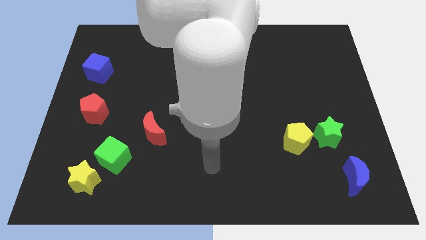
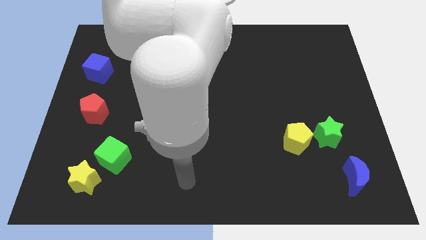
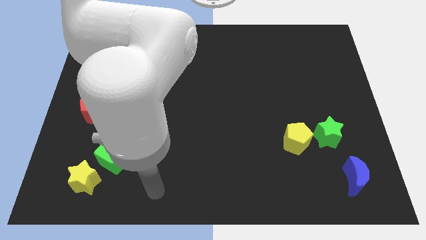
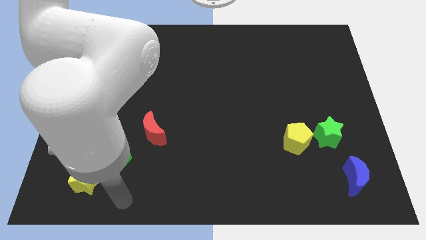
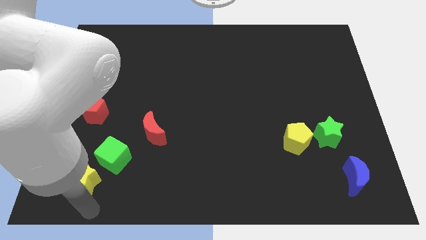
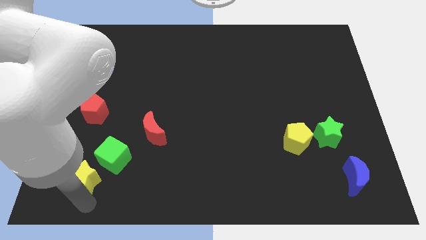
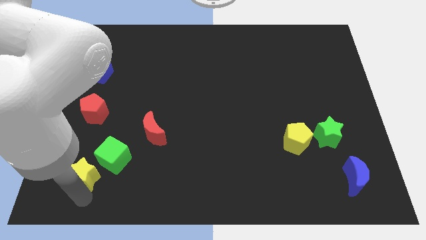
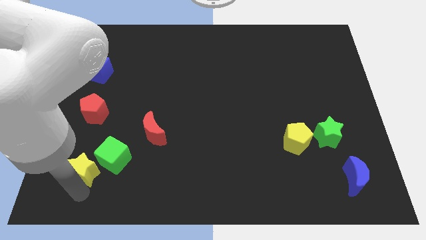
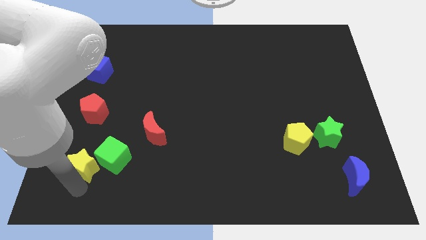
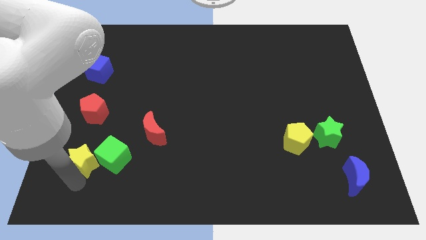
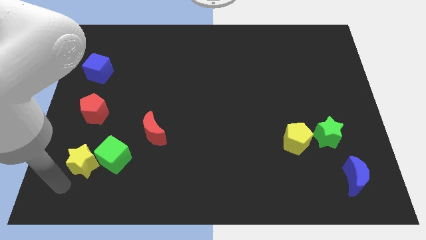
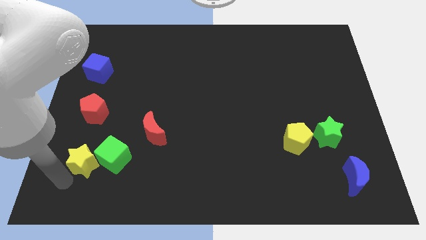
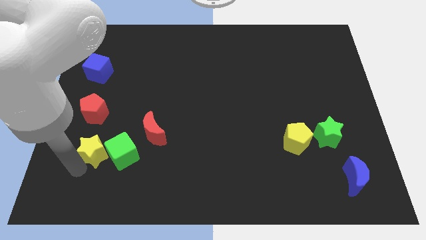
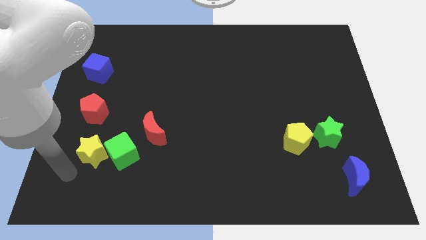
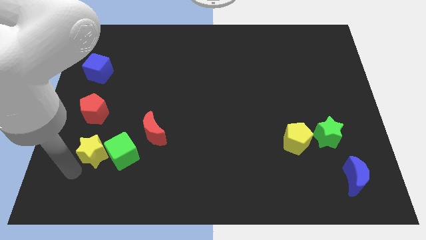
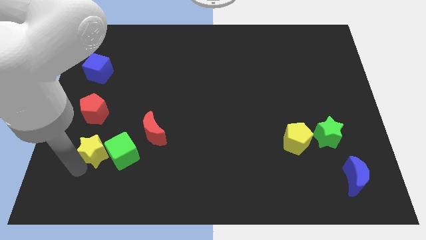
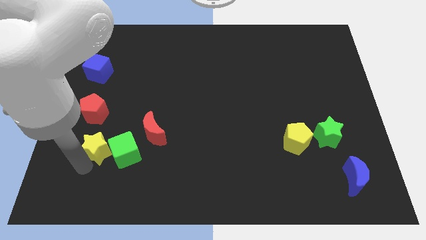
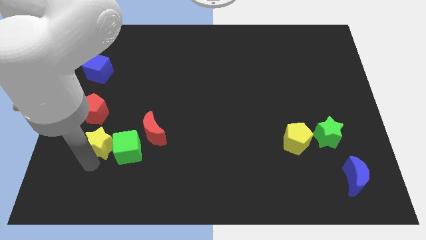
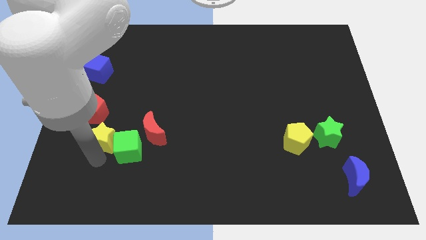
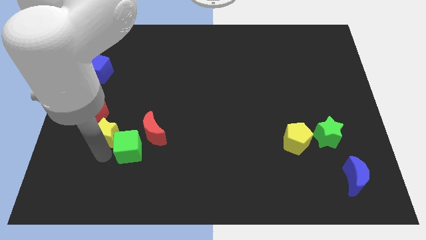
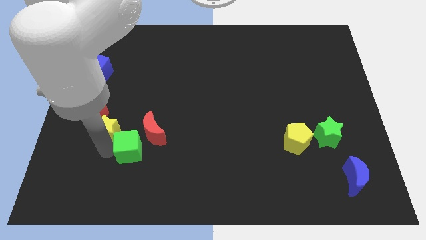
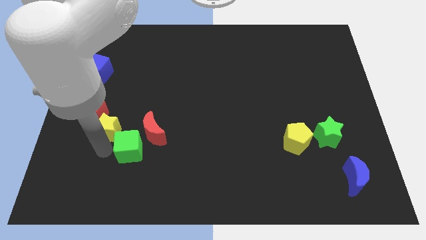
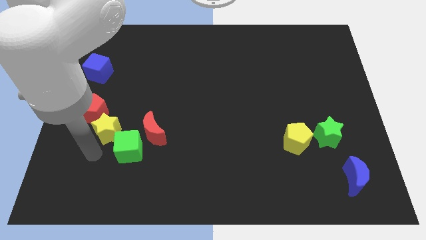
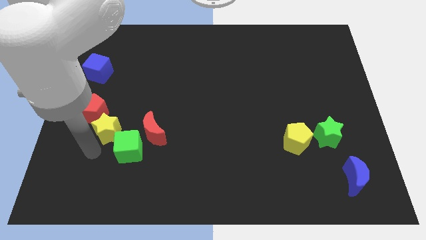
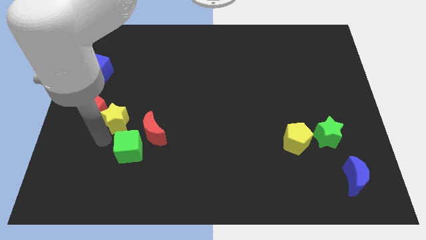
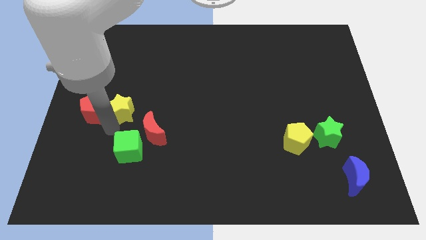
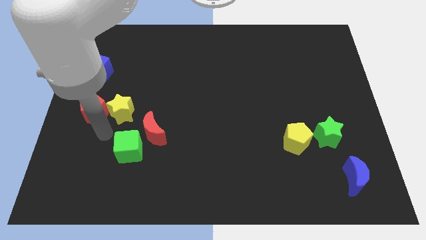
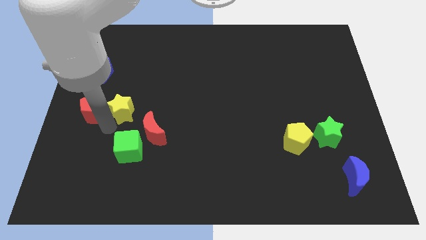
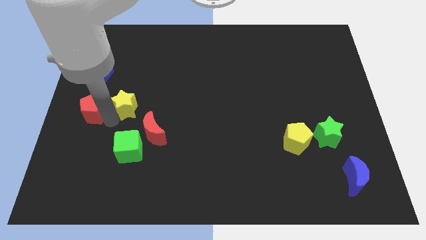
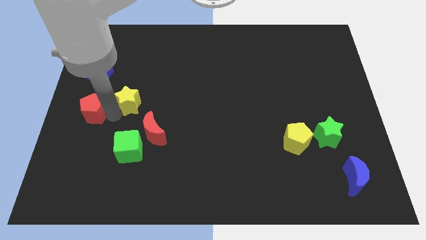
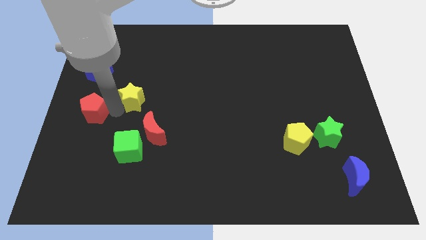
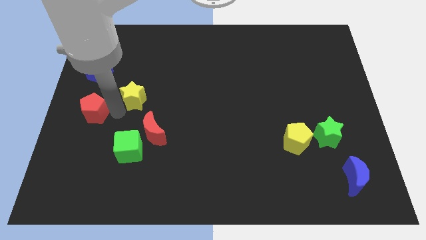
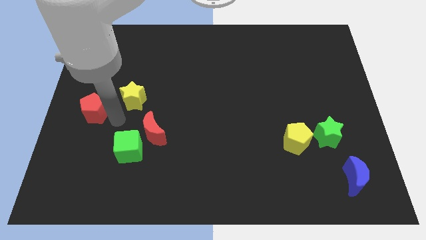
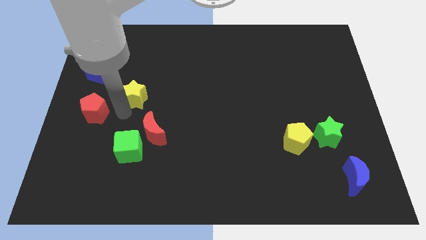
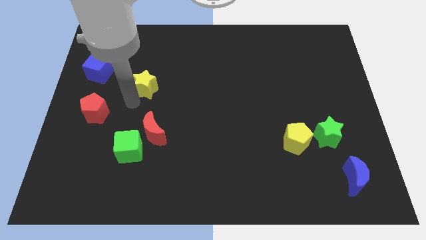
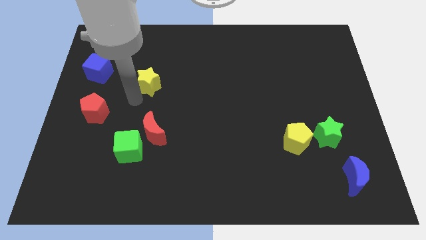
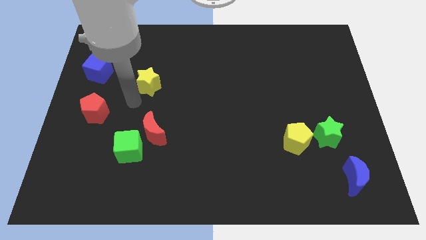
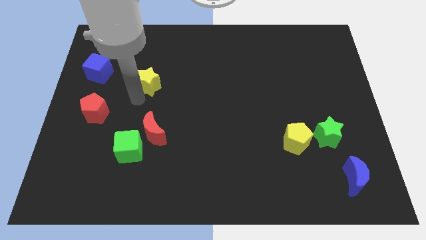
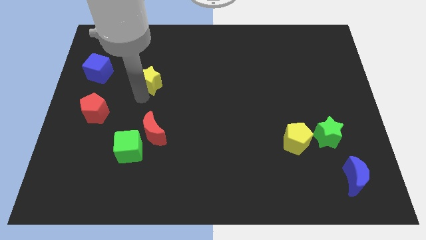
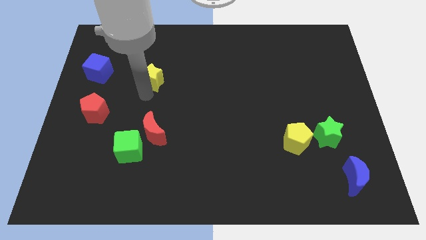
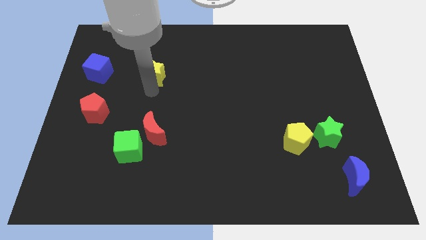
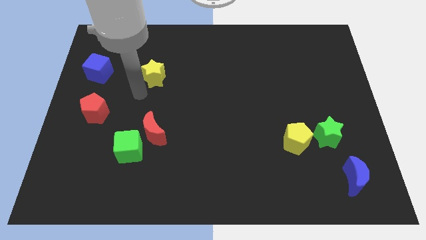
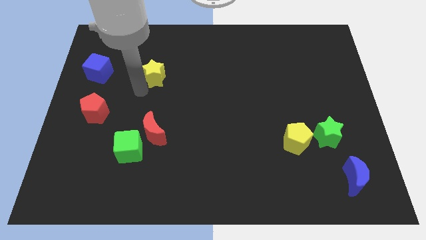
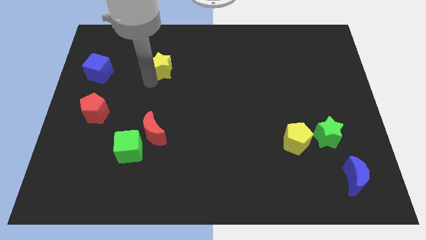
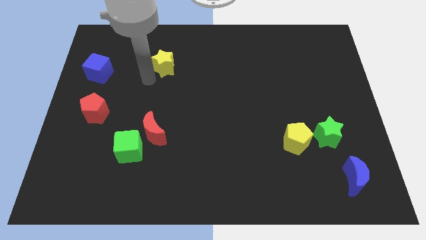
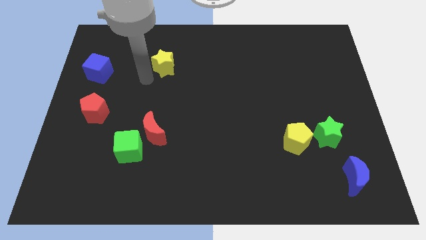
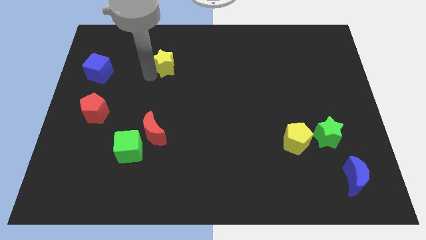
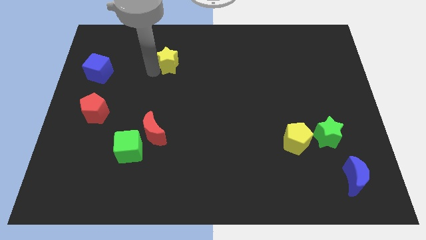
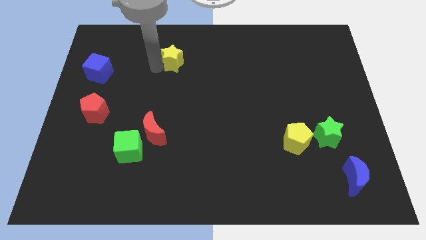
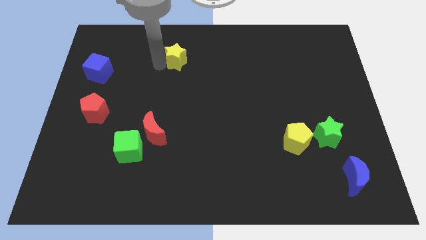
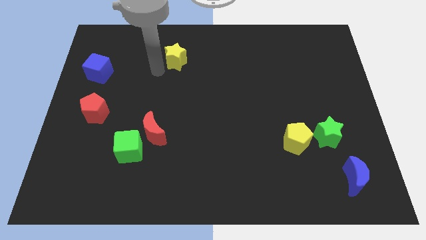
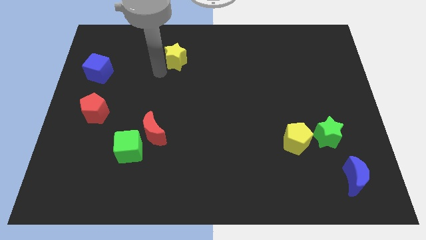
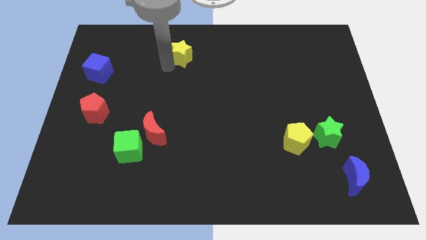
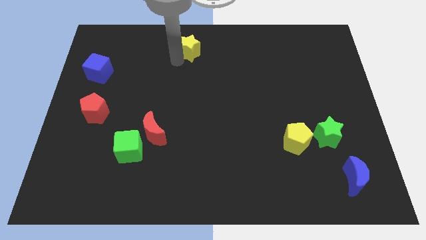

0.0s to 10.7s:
slide the yellow star to the top

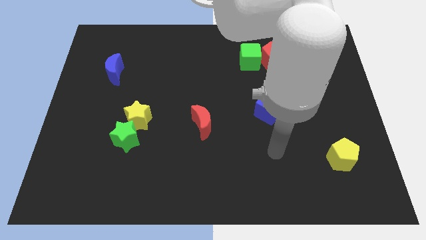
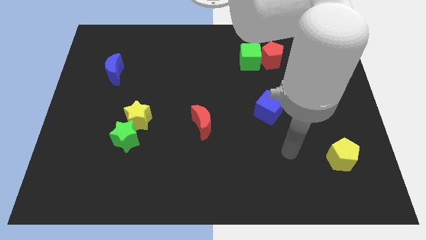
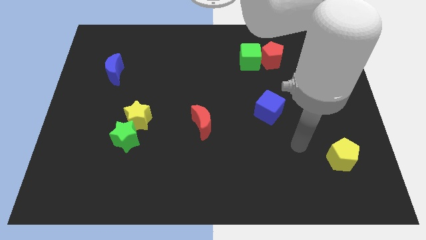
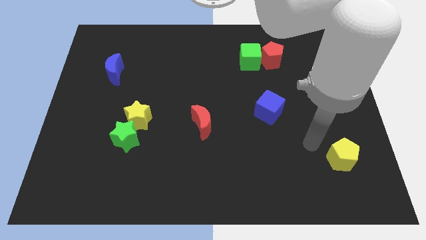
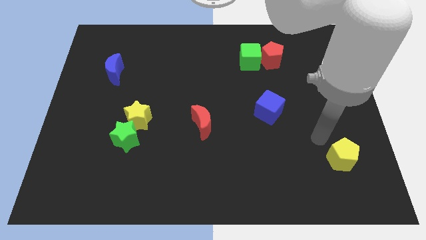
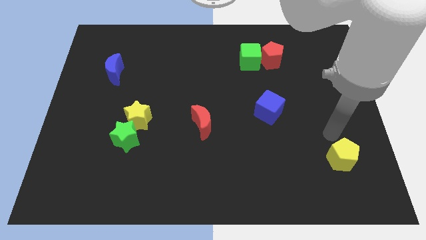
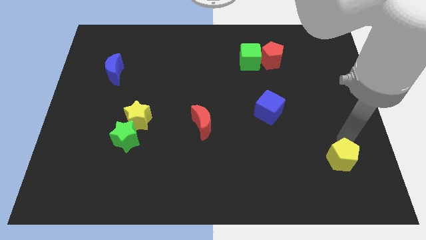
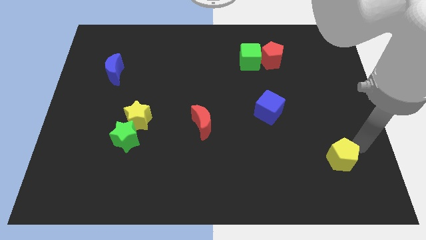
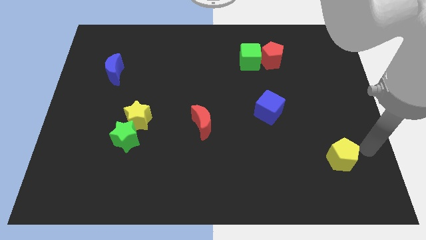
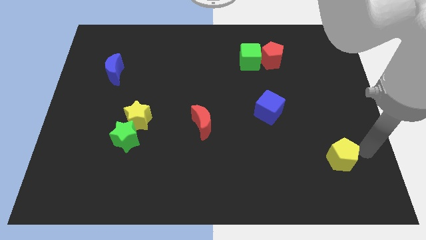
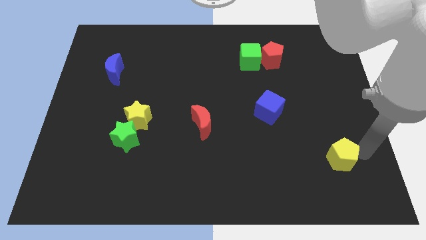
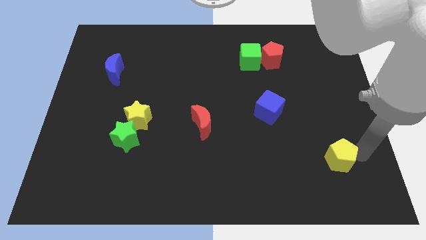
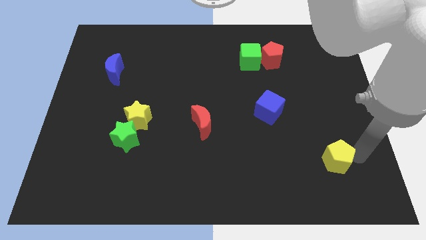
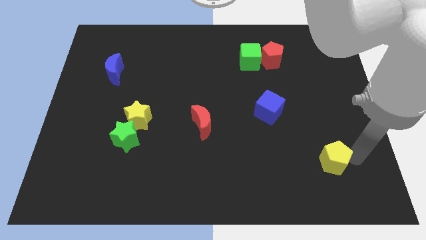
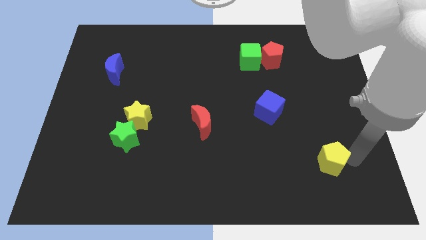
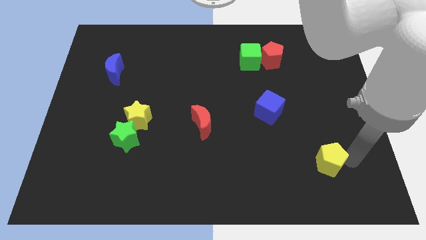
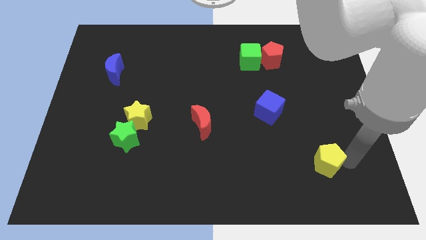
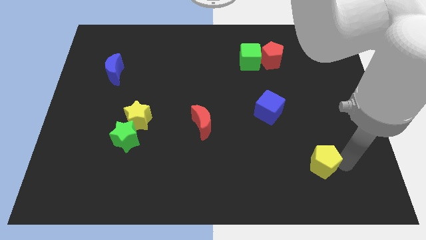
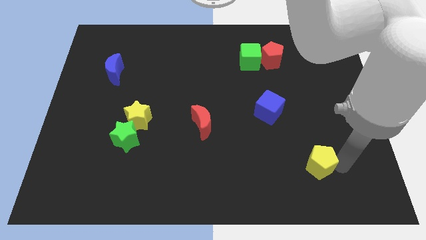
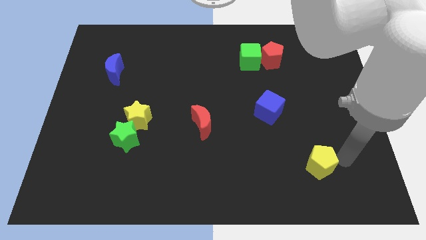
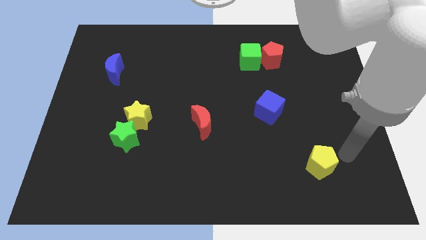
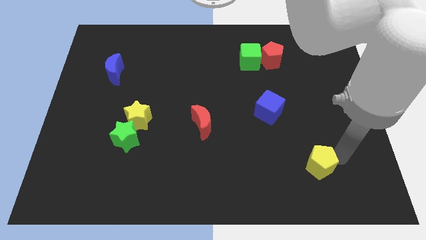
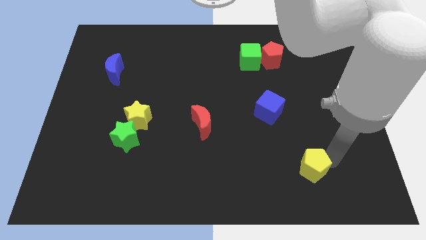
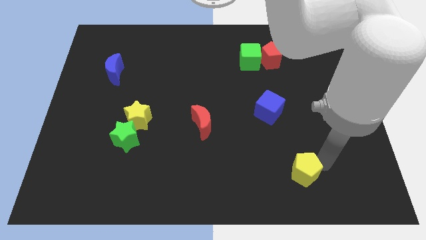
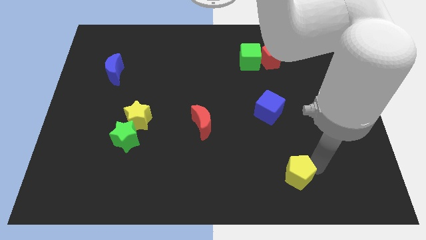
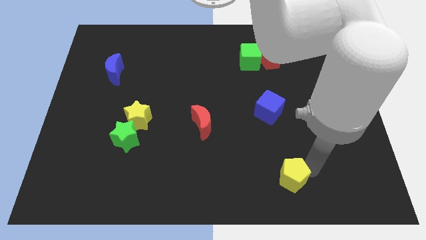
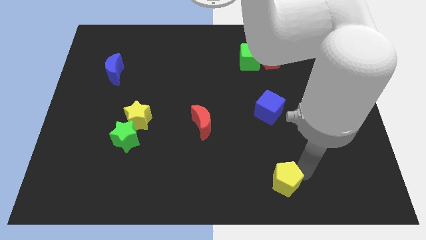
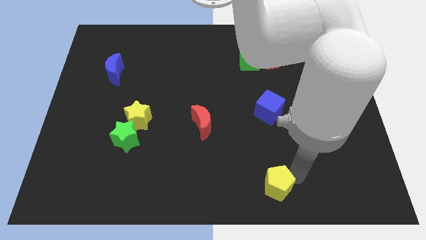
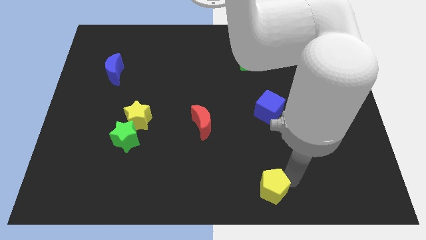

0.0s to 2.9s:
put the yellow pentagon to the bottom side
